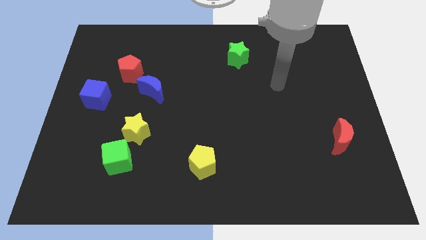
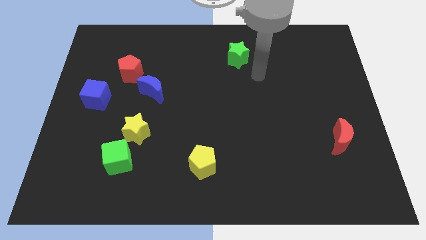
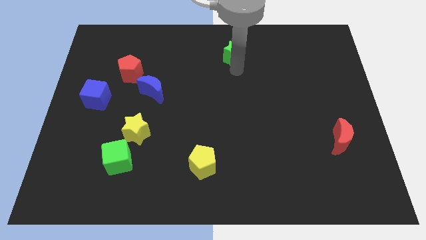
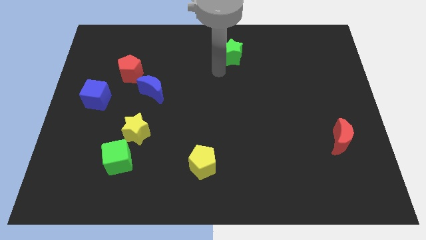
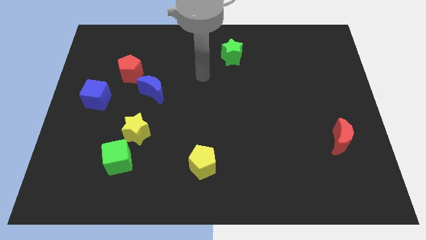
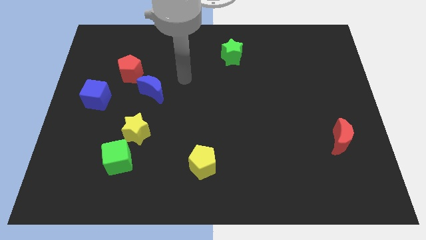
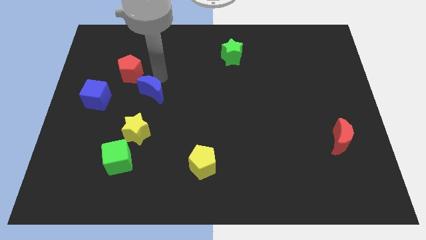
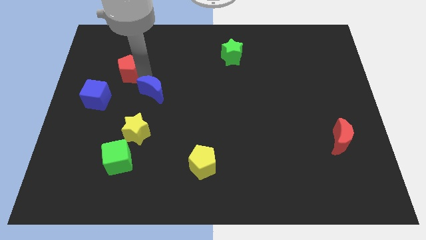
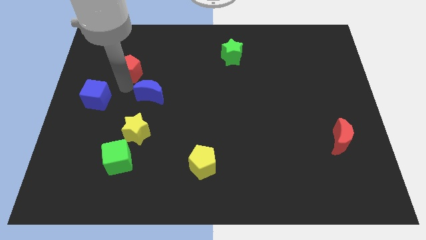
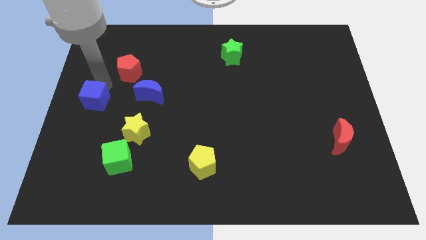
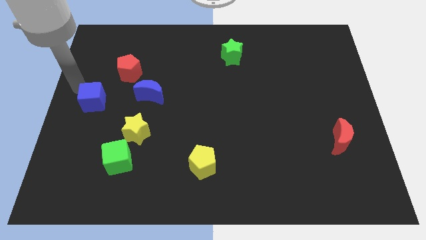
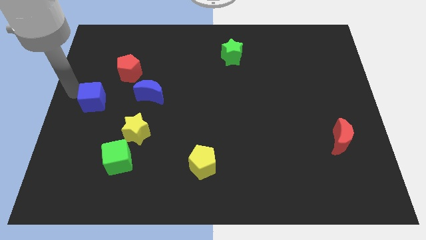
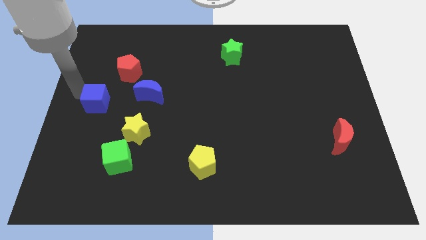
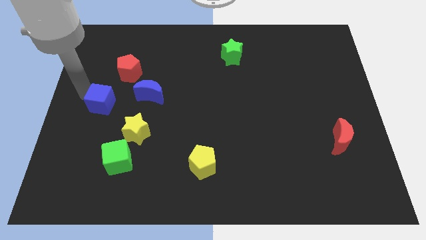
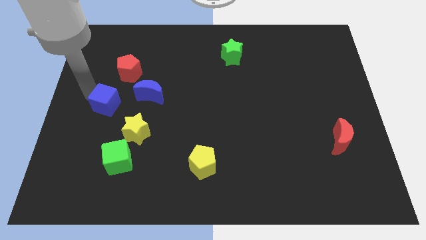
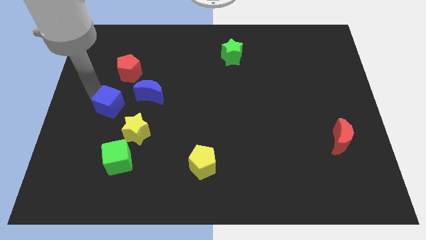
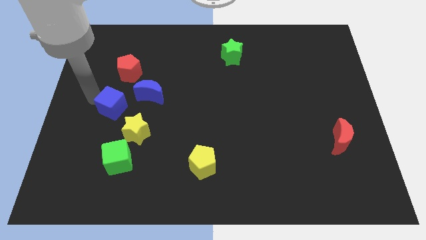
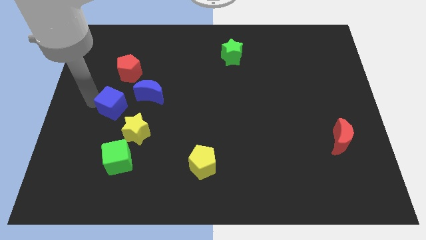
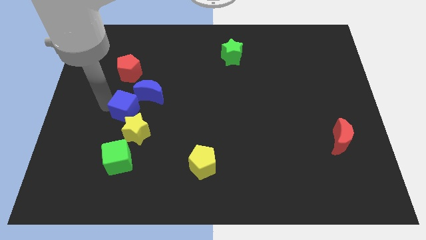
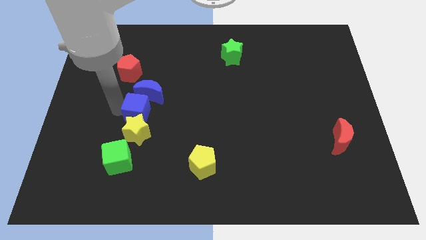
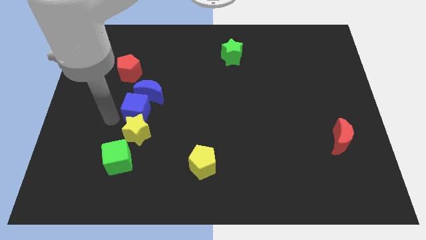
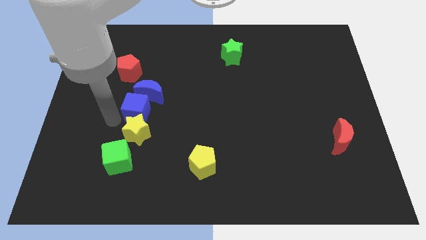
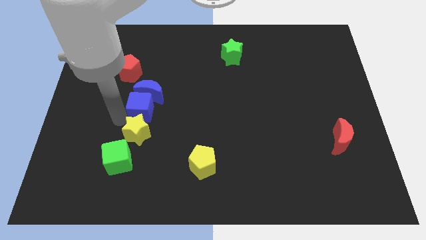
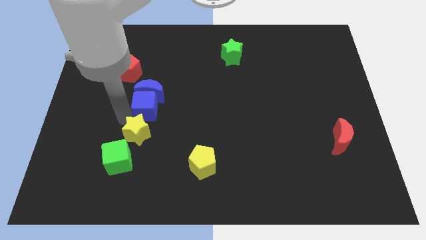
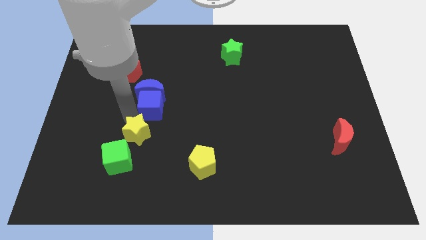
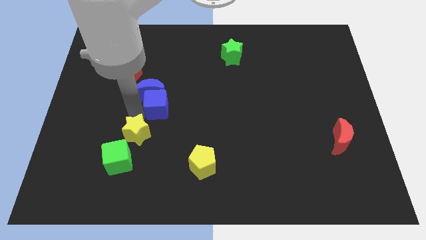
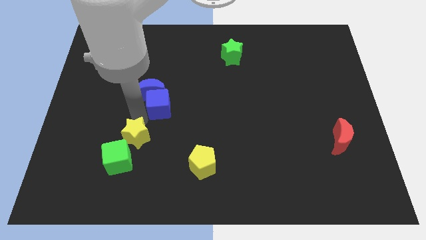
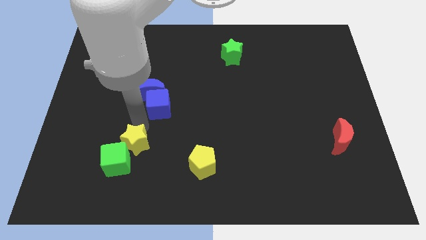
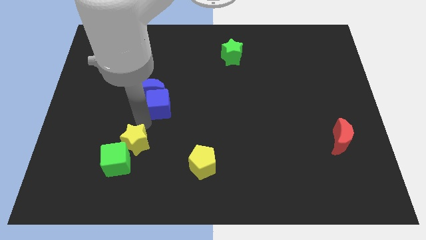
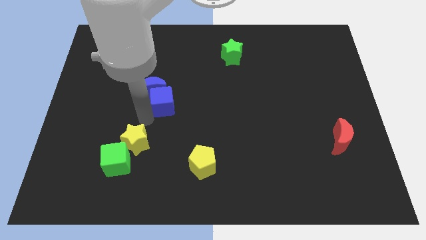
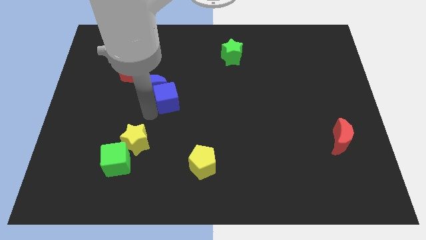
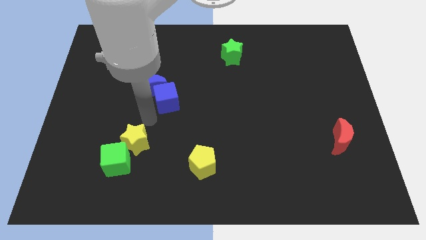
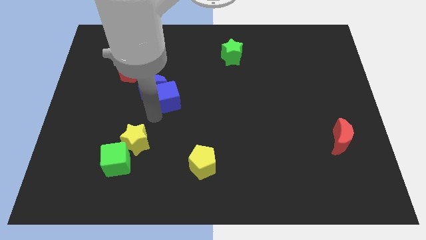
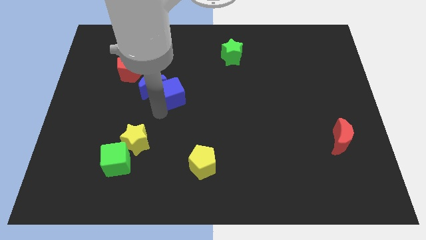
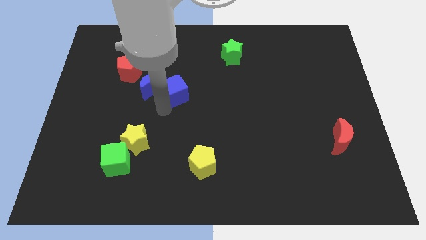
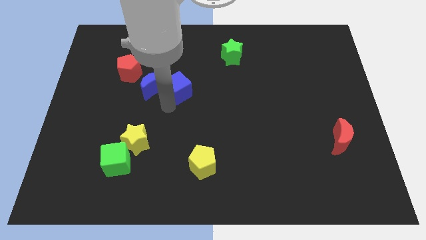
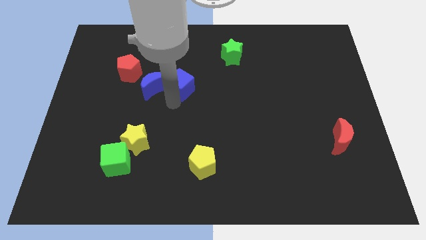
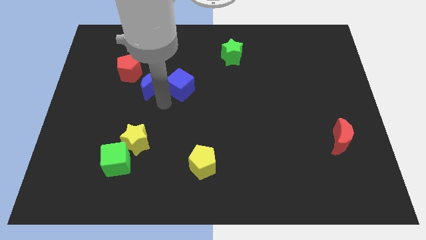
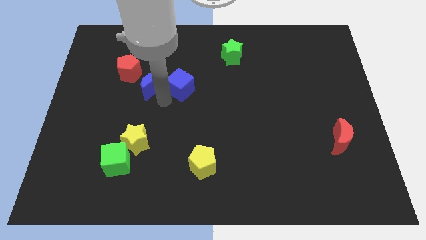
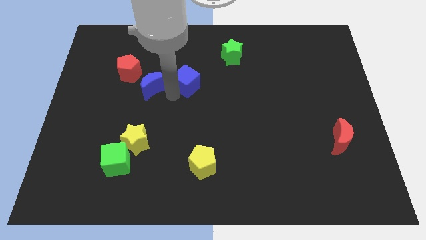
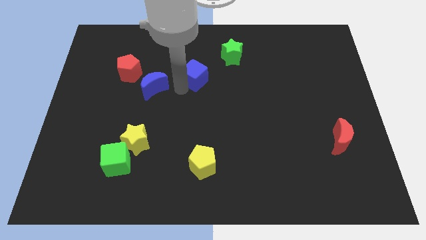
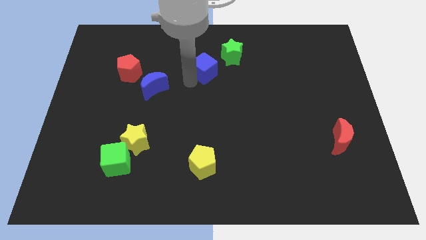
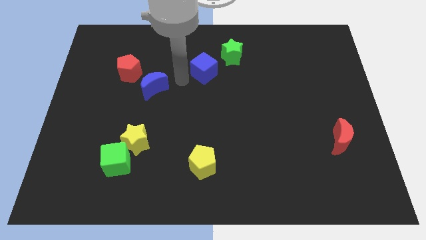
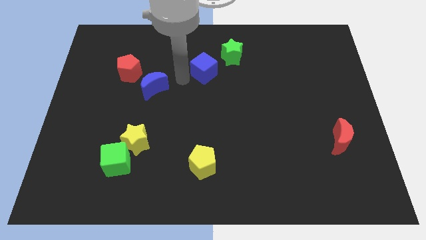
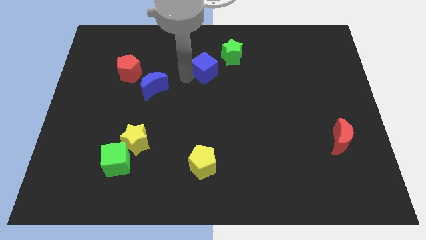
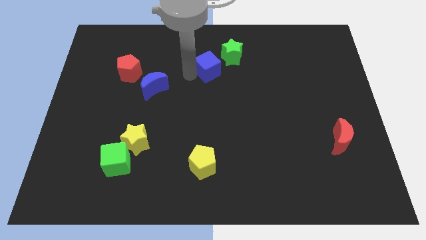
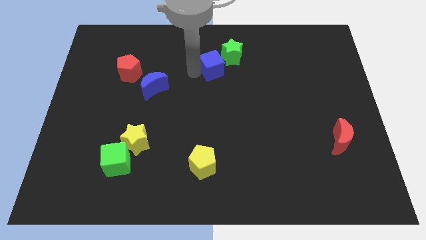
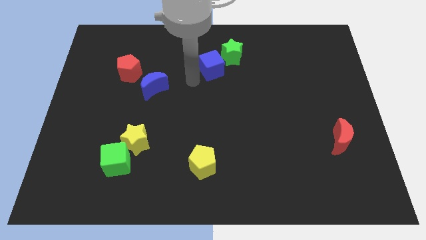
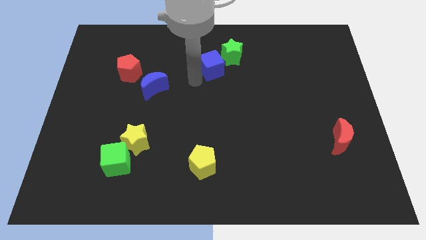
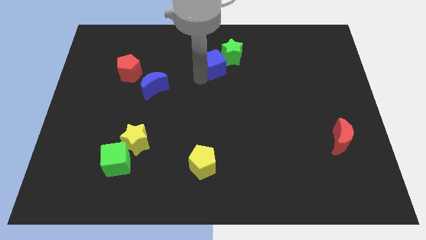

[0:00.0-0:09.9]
move the blue cube towards the green star

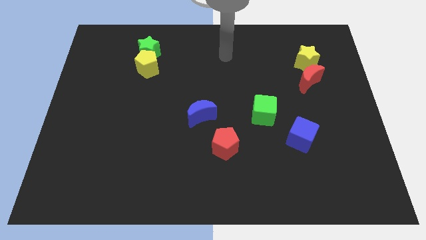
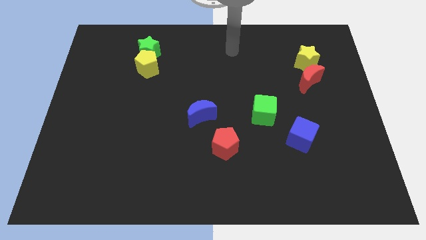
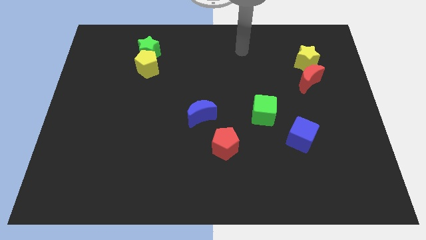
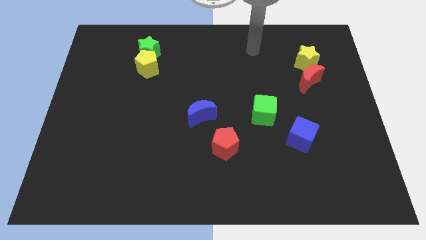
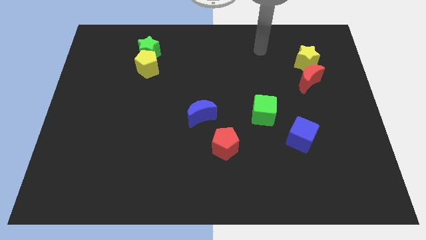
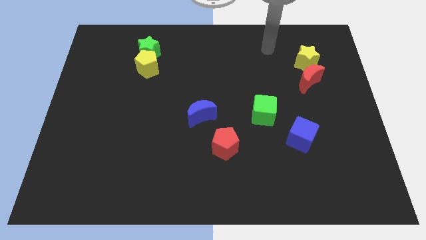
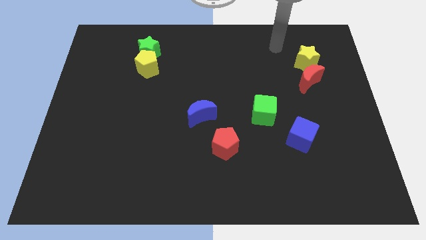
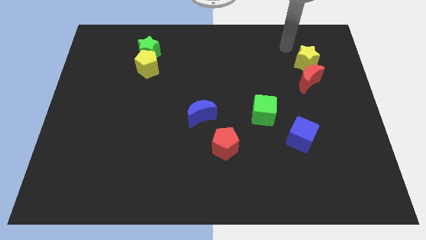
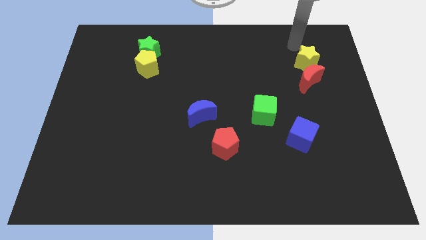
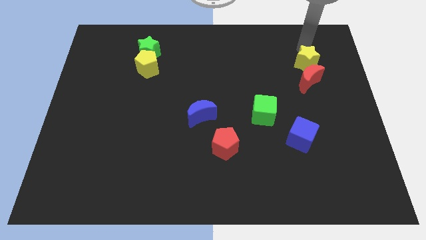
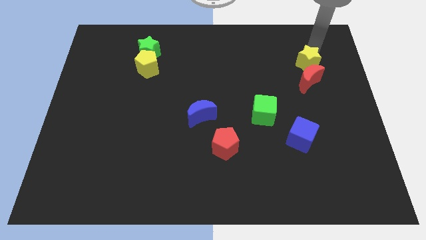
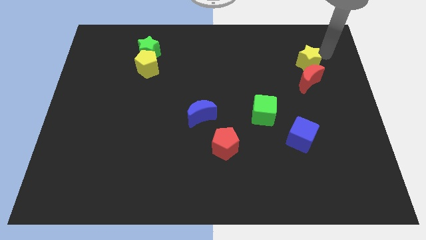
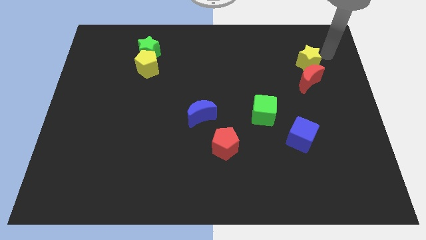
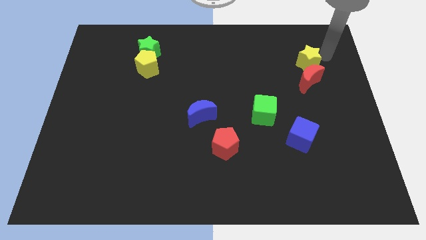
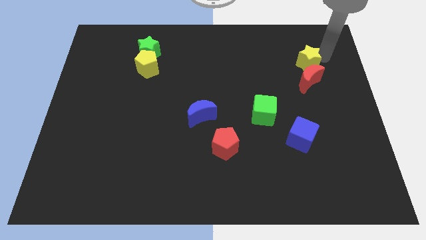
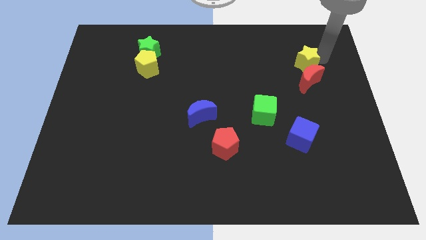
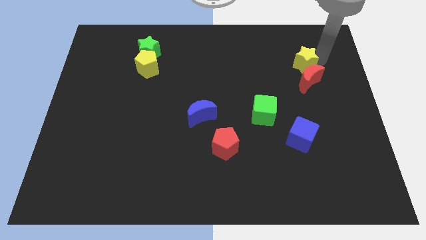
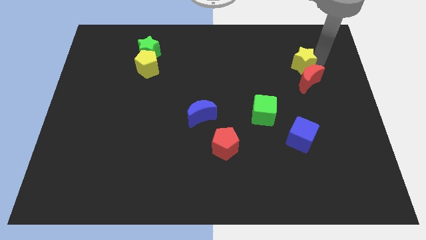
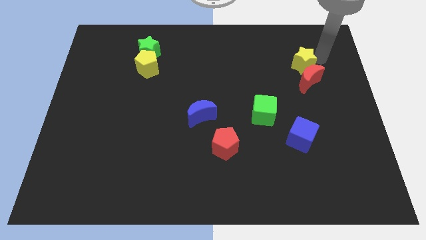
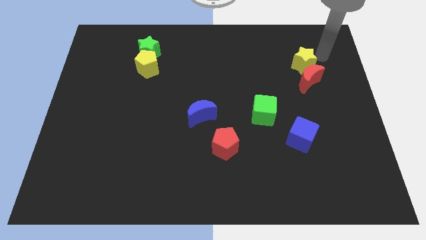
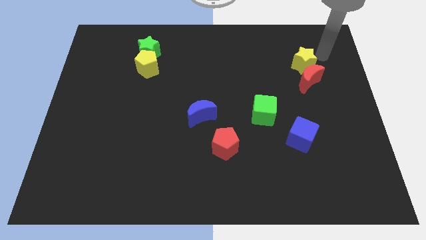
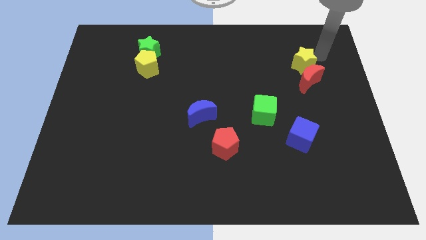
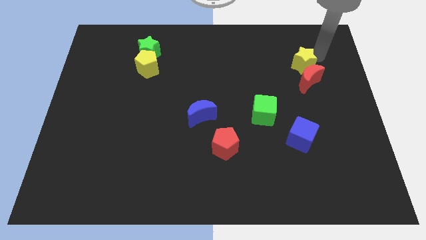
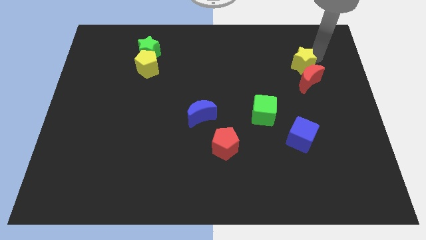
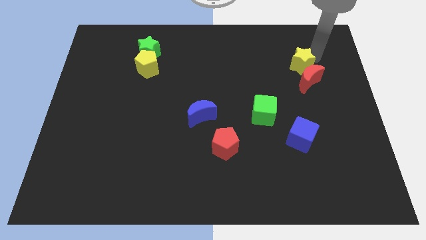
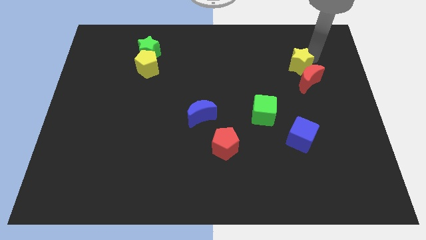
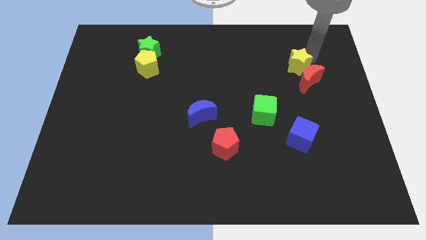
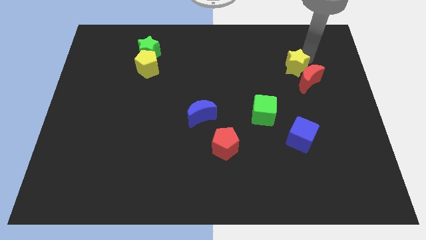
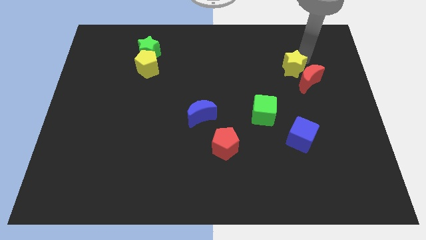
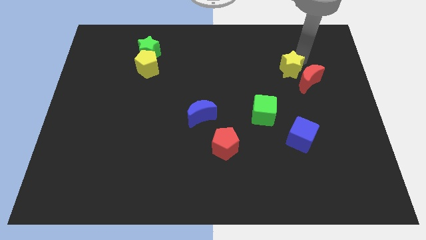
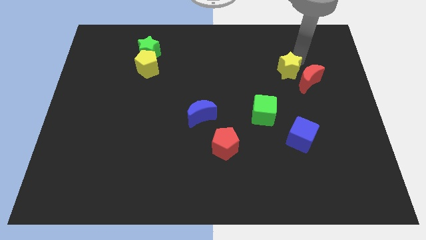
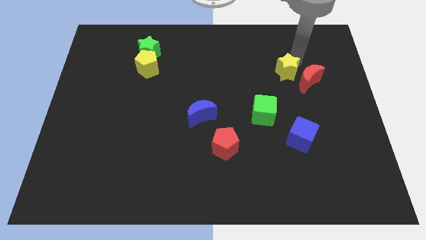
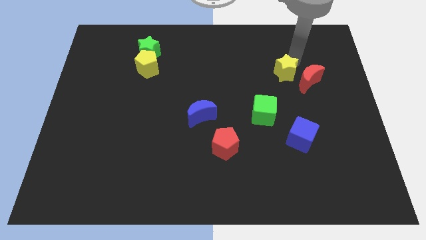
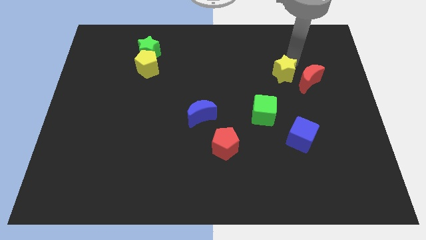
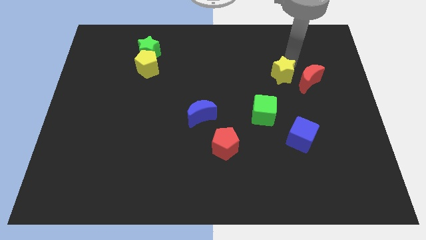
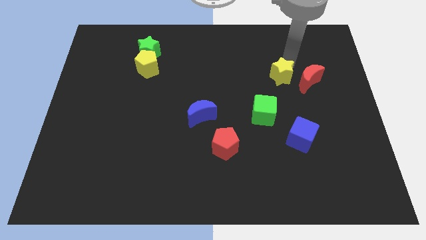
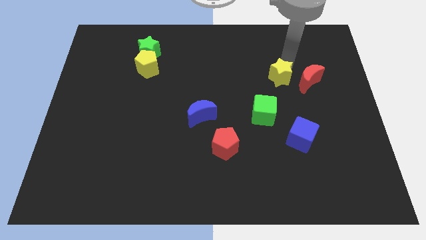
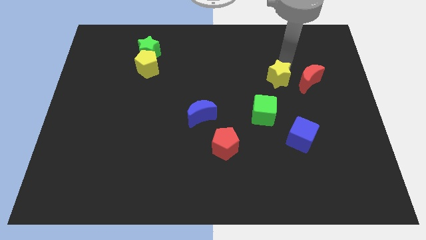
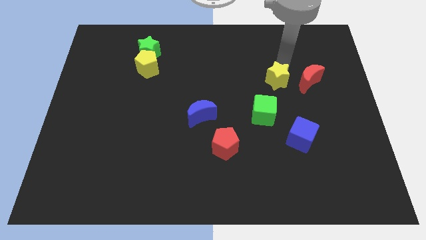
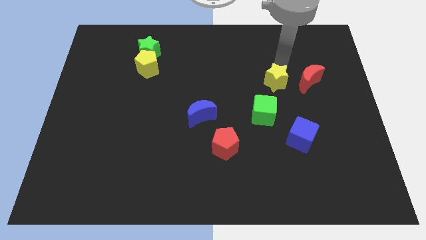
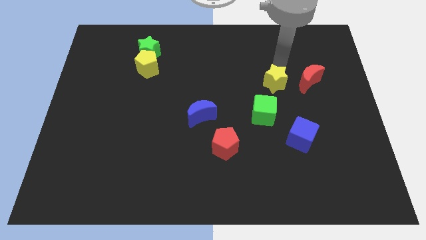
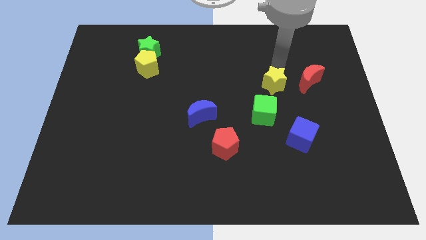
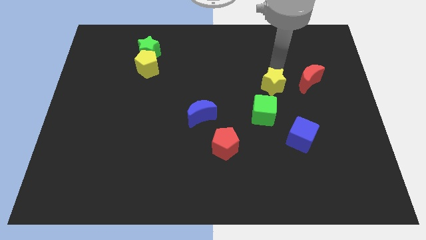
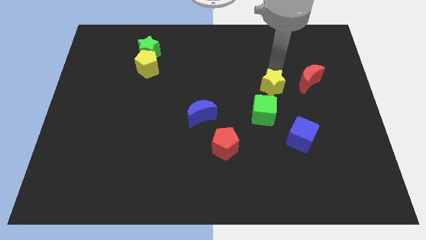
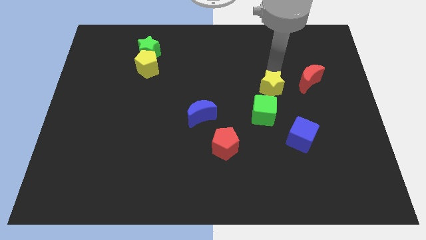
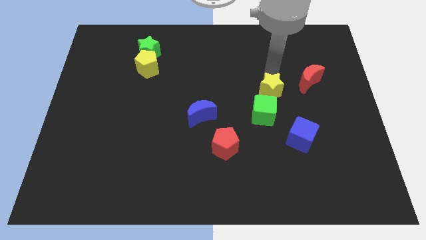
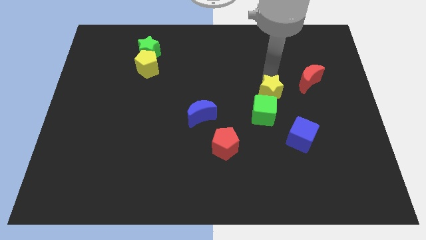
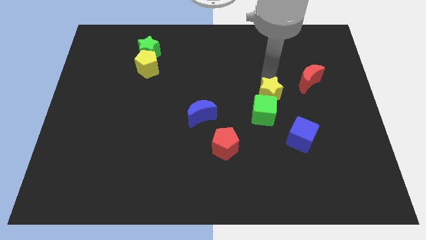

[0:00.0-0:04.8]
move the yellow star close to the green cube
